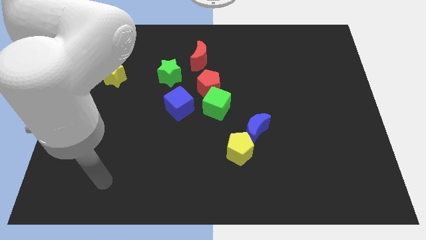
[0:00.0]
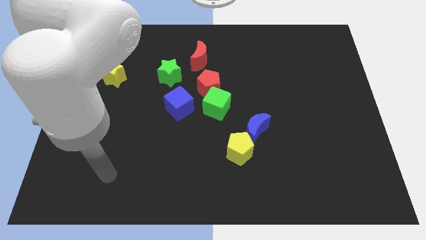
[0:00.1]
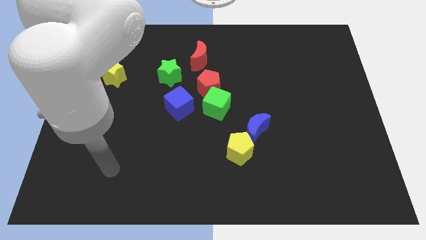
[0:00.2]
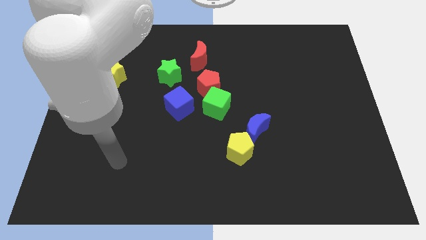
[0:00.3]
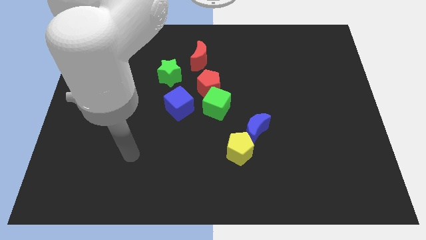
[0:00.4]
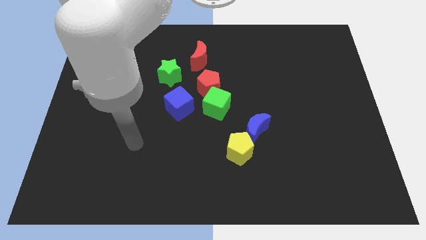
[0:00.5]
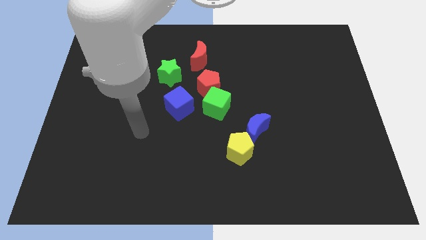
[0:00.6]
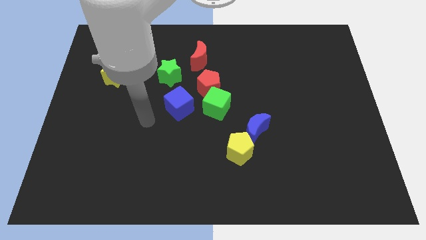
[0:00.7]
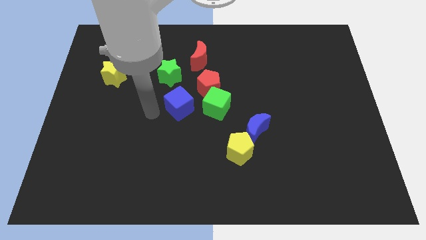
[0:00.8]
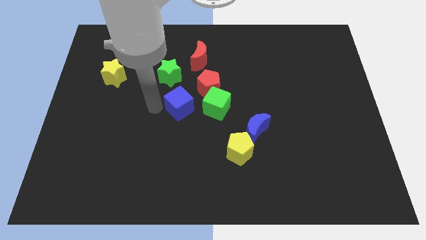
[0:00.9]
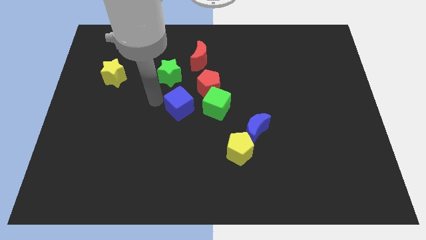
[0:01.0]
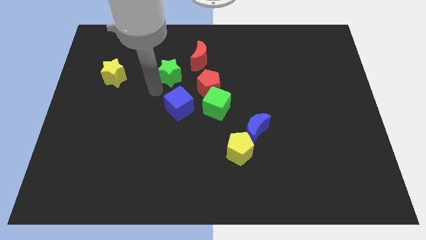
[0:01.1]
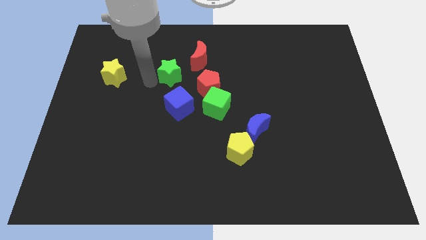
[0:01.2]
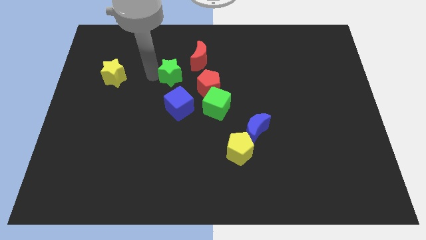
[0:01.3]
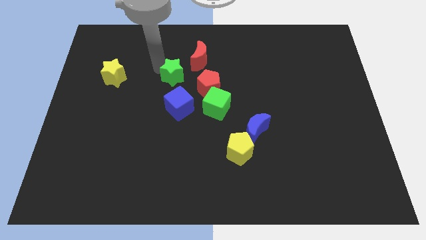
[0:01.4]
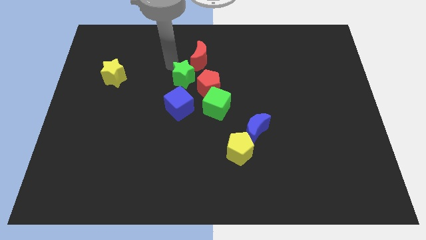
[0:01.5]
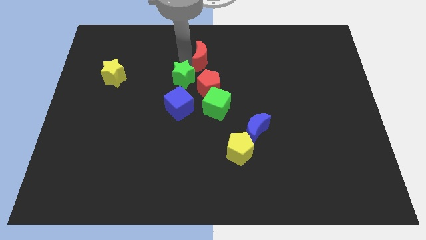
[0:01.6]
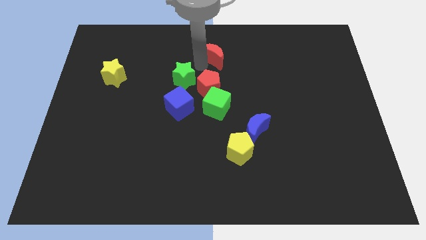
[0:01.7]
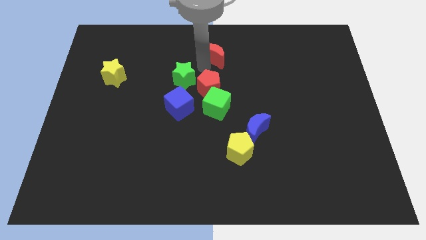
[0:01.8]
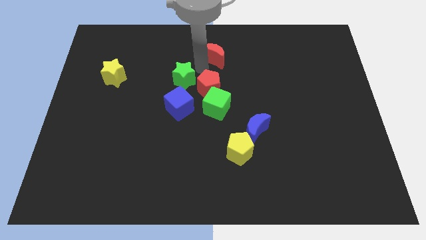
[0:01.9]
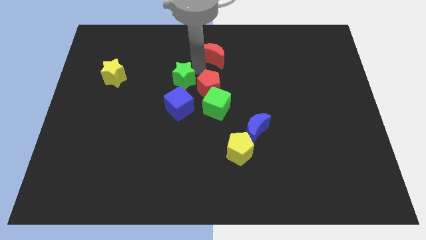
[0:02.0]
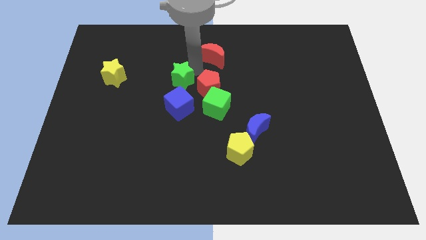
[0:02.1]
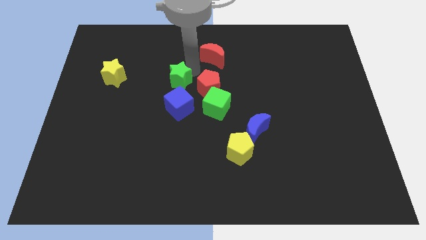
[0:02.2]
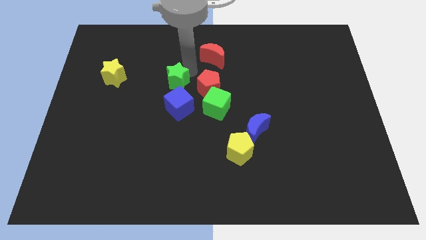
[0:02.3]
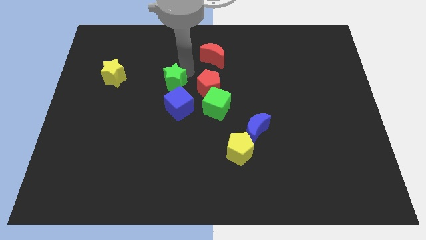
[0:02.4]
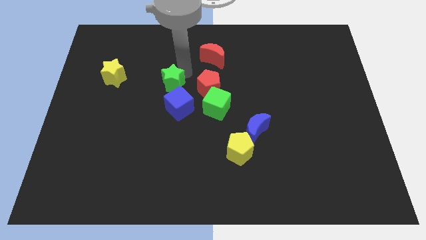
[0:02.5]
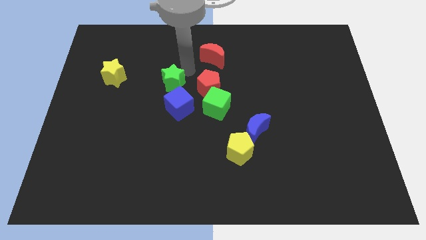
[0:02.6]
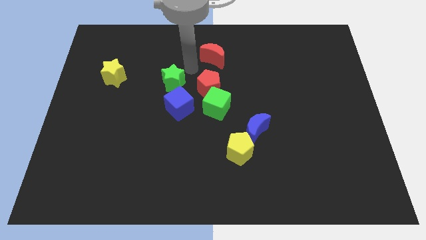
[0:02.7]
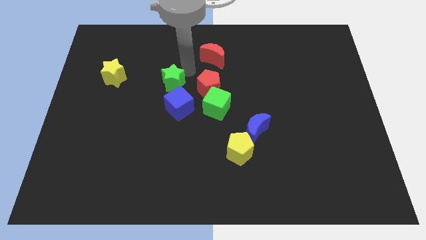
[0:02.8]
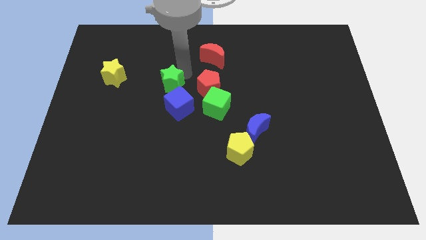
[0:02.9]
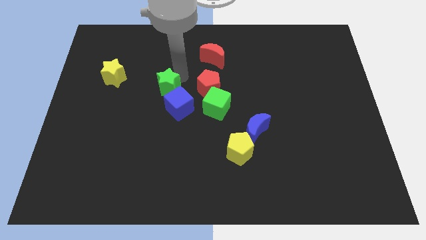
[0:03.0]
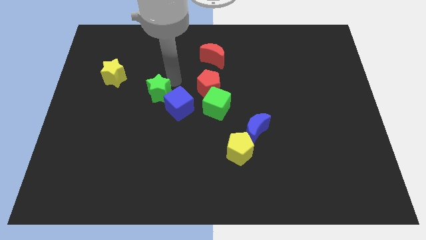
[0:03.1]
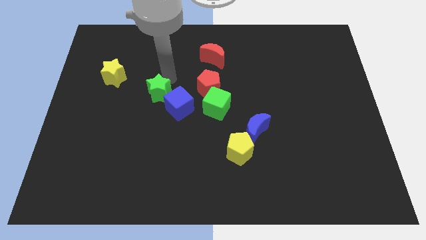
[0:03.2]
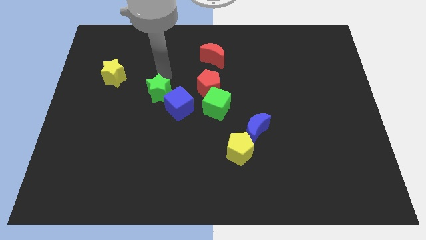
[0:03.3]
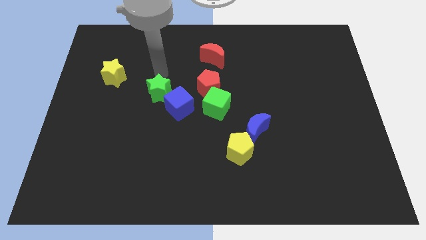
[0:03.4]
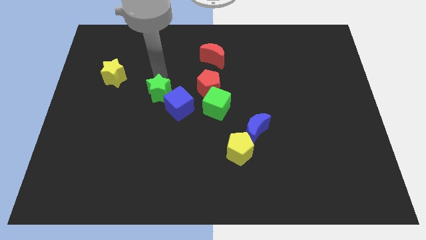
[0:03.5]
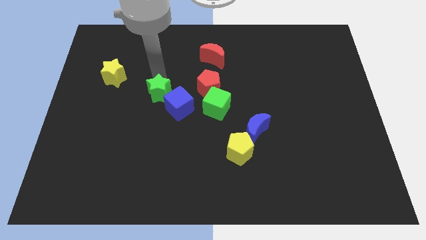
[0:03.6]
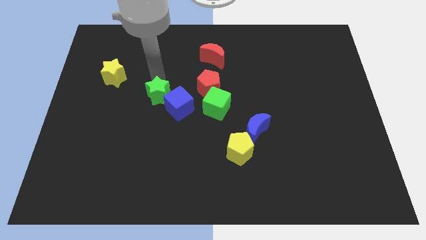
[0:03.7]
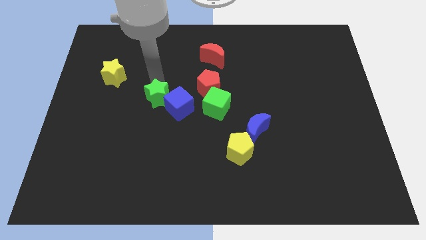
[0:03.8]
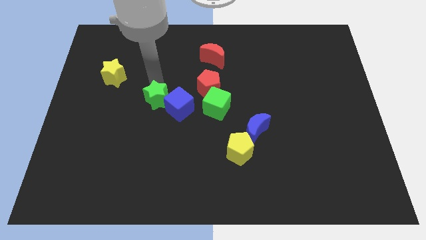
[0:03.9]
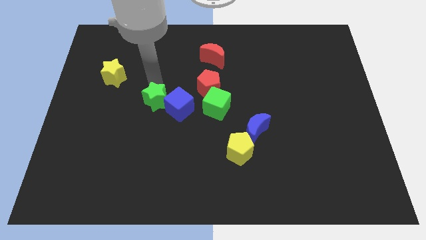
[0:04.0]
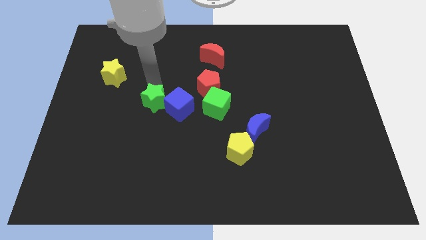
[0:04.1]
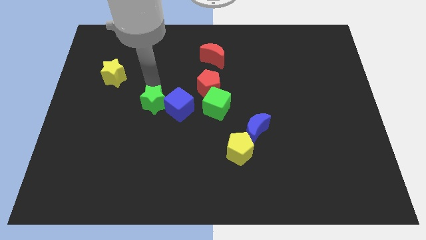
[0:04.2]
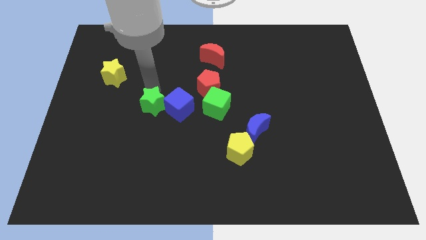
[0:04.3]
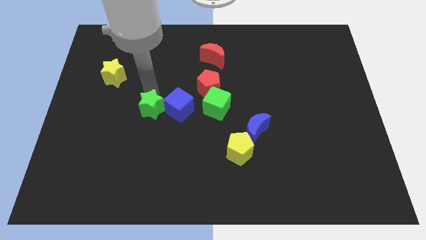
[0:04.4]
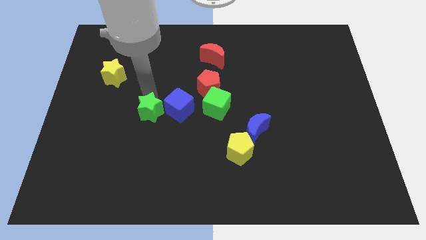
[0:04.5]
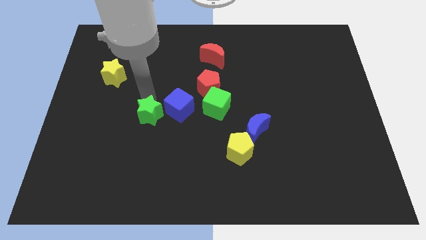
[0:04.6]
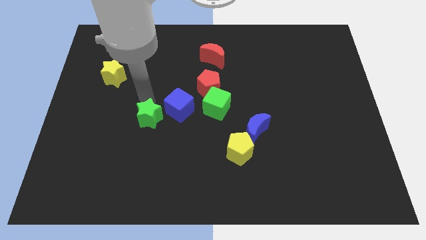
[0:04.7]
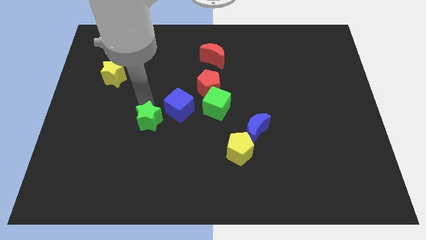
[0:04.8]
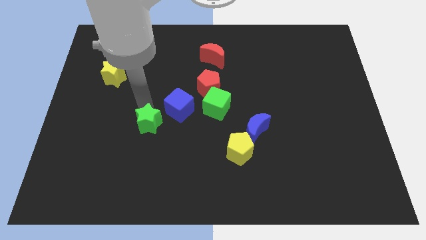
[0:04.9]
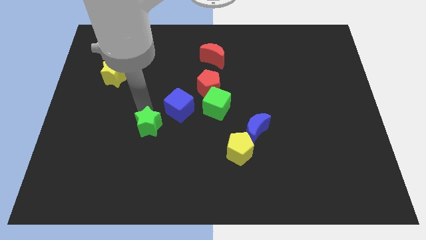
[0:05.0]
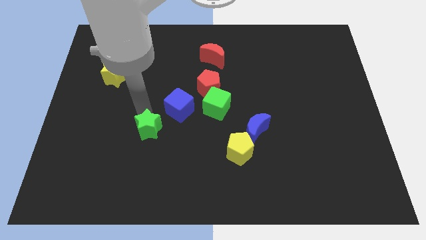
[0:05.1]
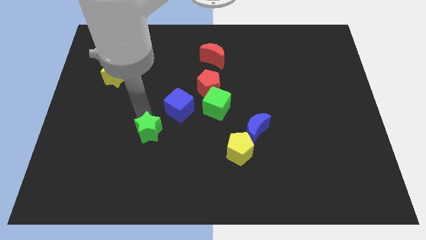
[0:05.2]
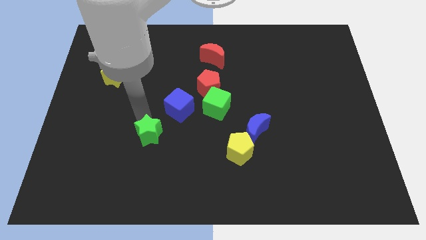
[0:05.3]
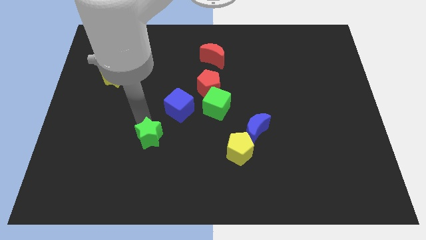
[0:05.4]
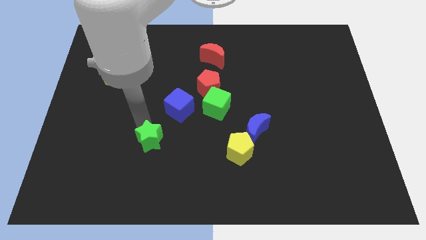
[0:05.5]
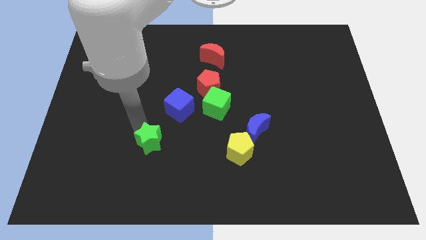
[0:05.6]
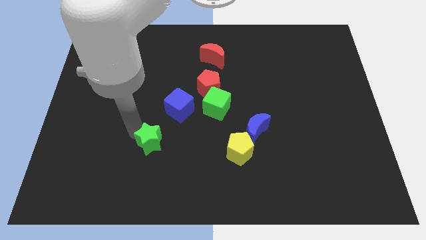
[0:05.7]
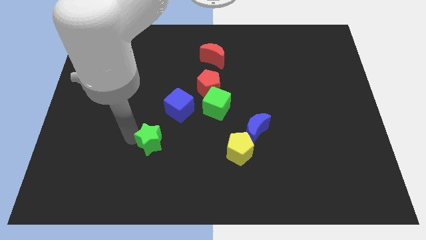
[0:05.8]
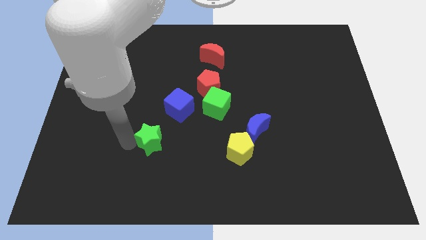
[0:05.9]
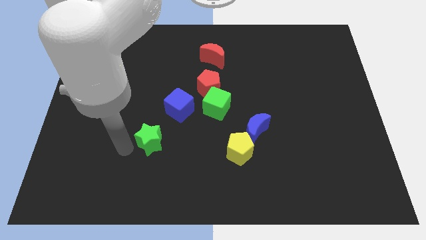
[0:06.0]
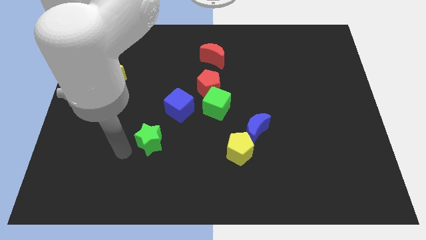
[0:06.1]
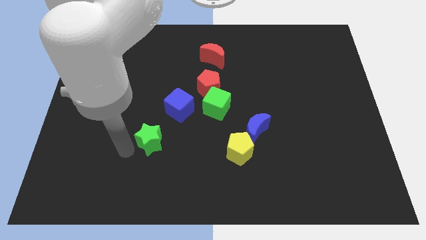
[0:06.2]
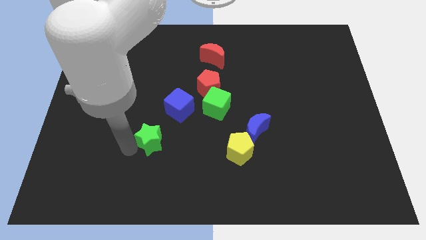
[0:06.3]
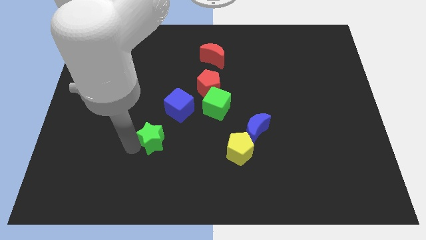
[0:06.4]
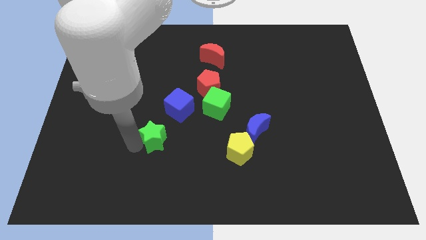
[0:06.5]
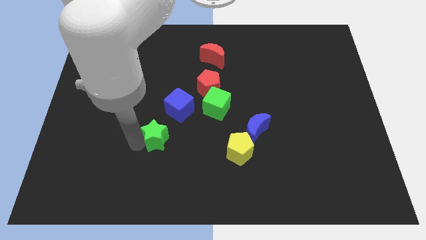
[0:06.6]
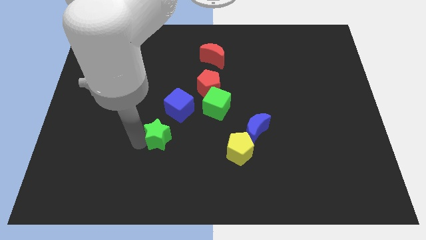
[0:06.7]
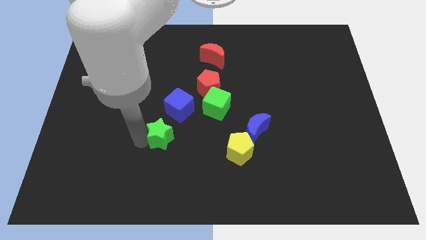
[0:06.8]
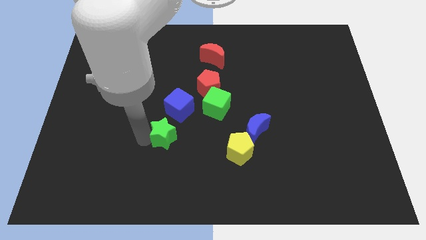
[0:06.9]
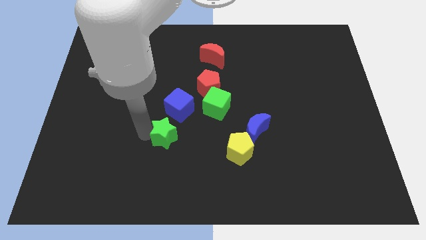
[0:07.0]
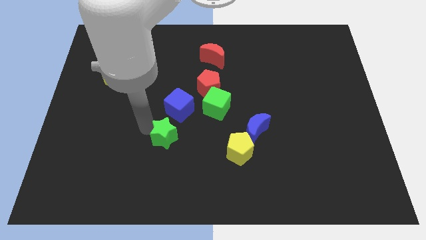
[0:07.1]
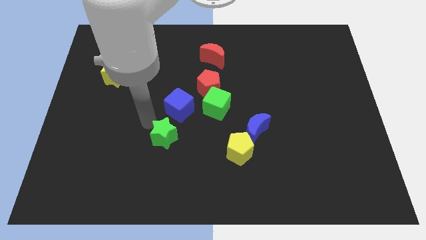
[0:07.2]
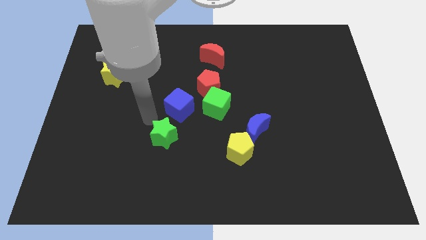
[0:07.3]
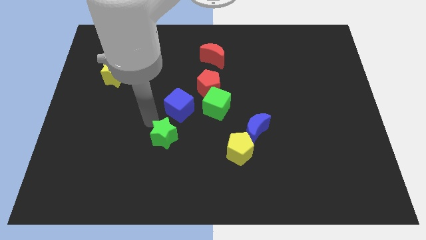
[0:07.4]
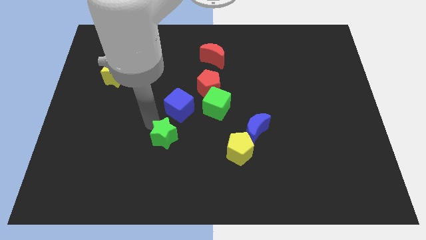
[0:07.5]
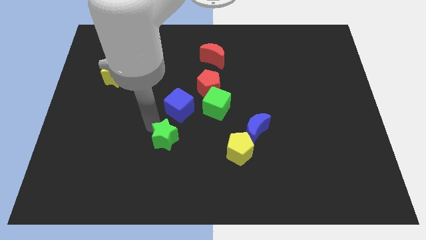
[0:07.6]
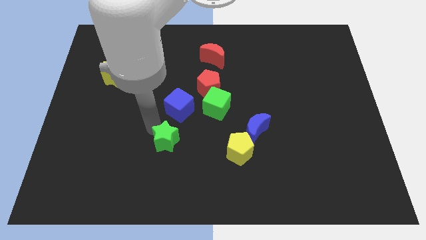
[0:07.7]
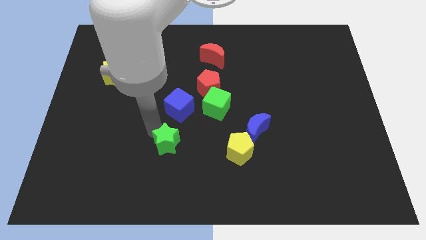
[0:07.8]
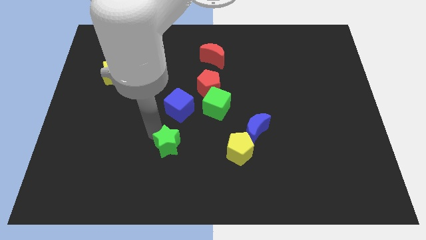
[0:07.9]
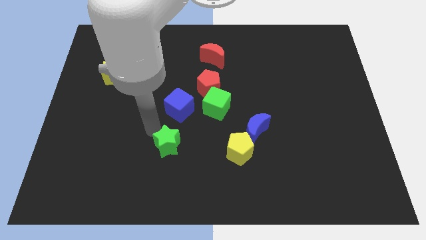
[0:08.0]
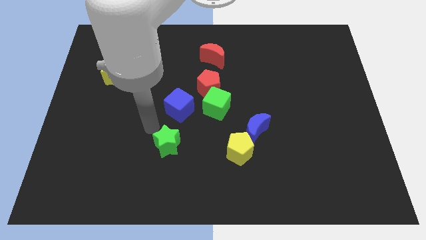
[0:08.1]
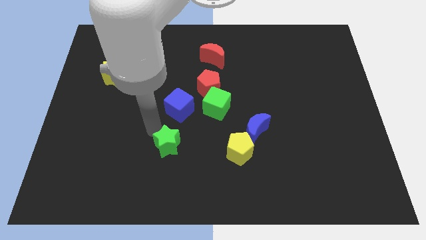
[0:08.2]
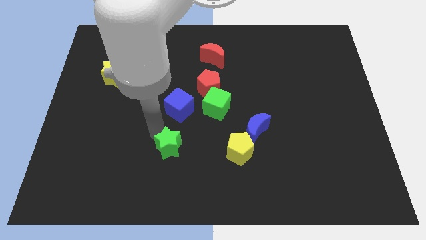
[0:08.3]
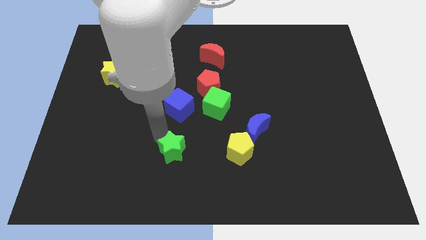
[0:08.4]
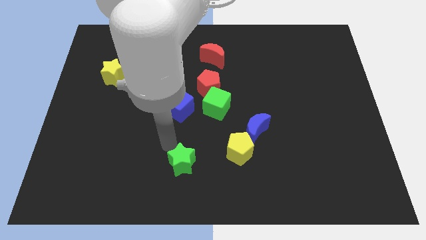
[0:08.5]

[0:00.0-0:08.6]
move the green star to the bottom side
